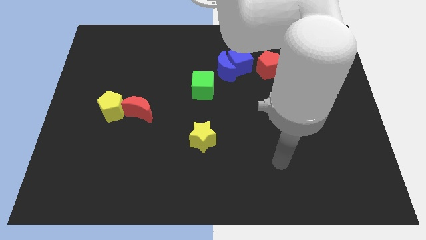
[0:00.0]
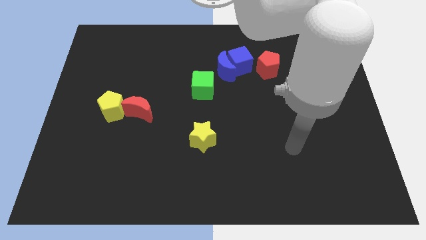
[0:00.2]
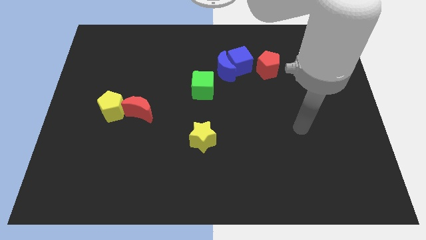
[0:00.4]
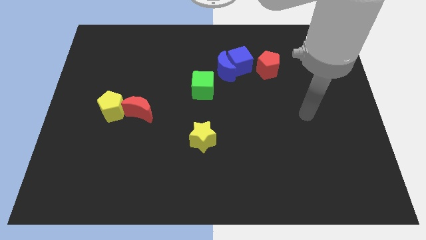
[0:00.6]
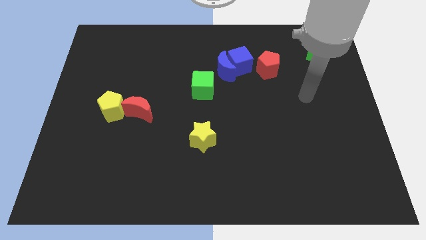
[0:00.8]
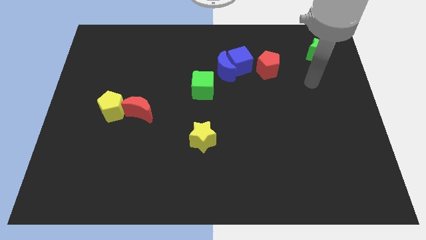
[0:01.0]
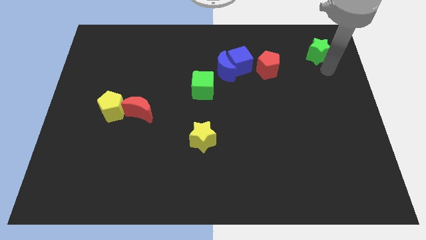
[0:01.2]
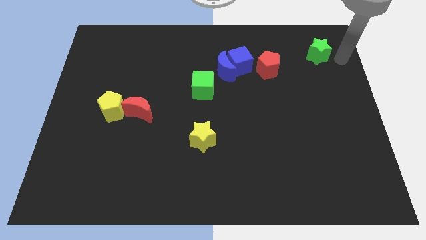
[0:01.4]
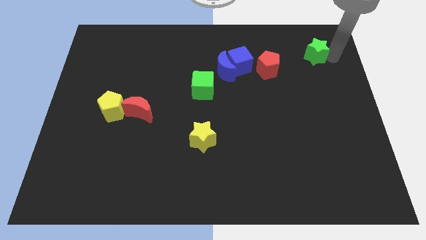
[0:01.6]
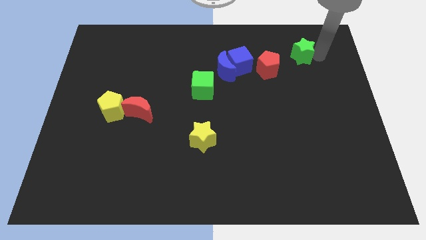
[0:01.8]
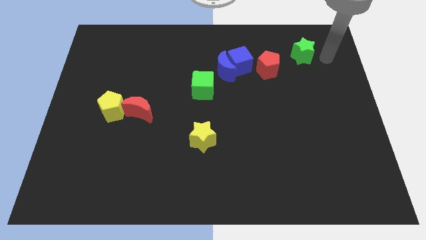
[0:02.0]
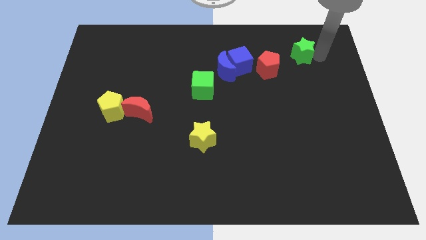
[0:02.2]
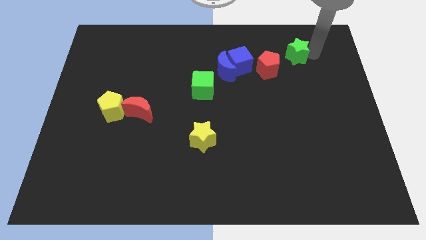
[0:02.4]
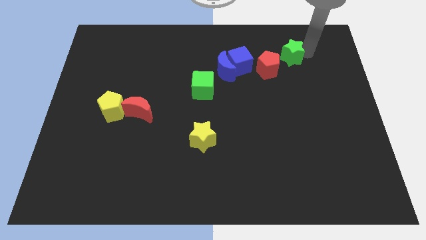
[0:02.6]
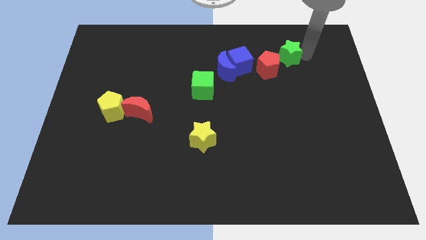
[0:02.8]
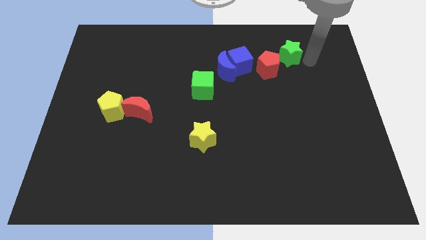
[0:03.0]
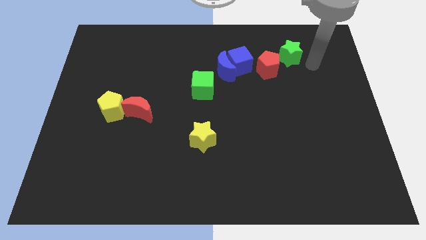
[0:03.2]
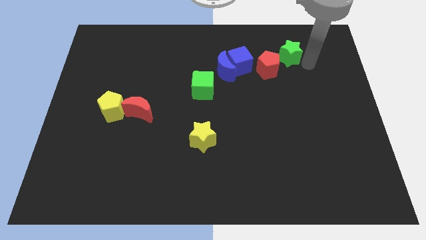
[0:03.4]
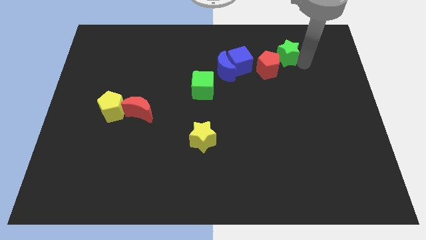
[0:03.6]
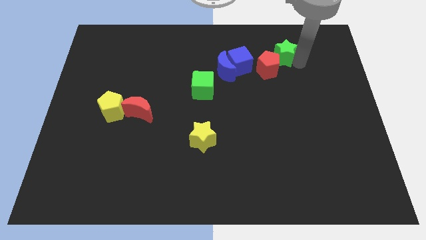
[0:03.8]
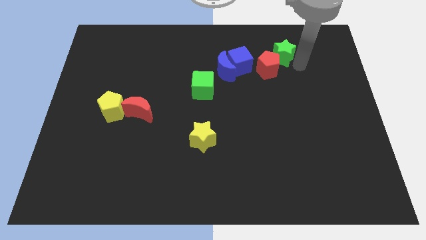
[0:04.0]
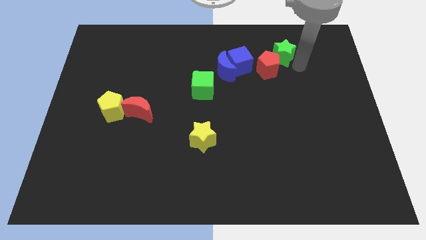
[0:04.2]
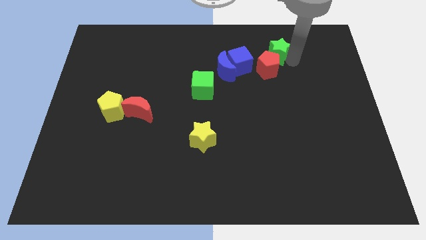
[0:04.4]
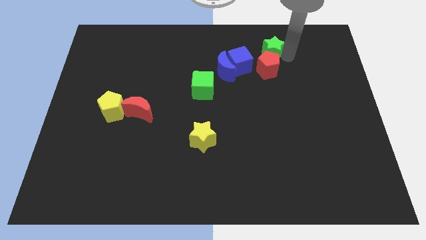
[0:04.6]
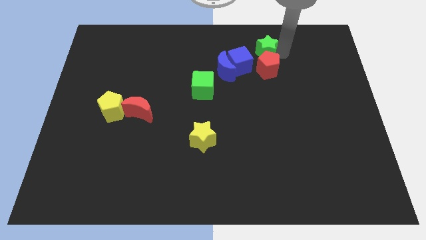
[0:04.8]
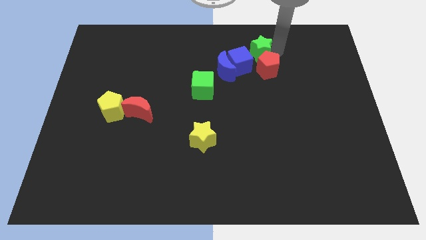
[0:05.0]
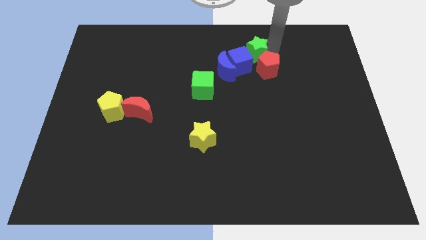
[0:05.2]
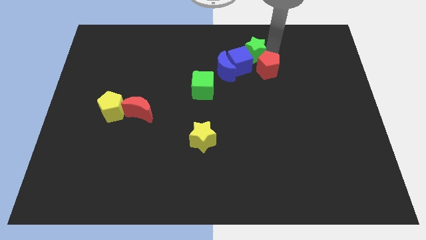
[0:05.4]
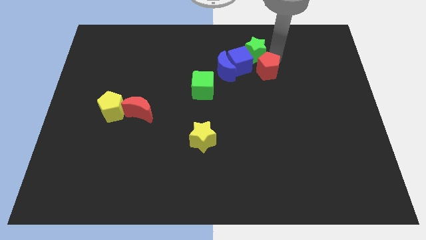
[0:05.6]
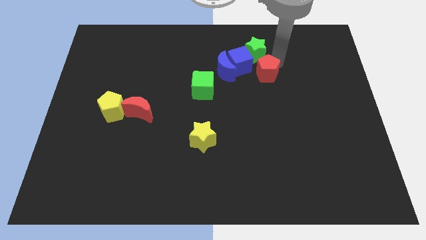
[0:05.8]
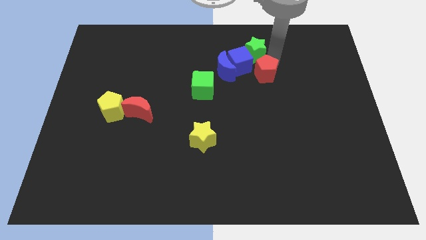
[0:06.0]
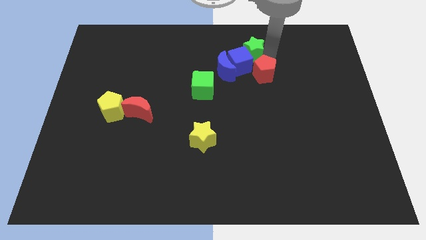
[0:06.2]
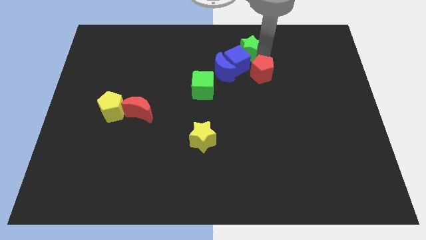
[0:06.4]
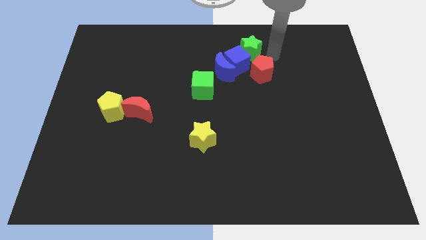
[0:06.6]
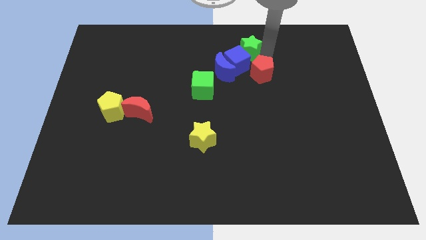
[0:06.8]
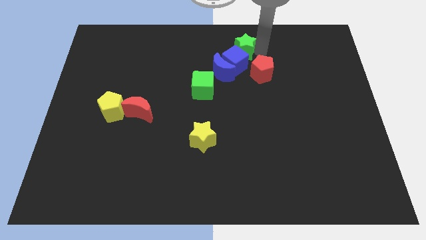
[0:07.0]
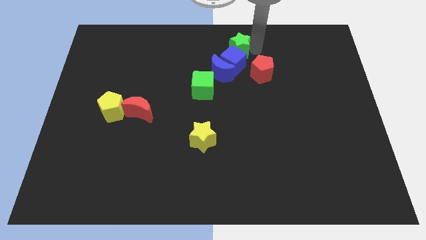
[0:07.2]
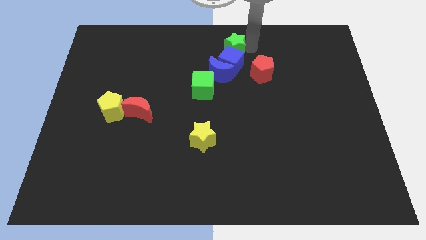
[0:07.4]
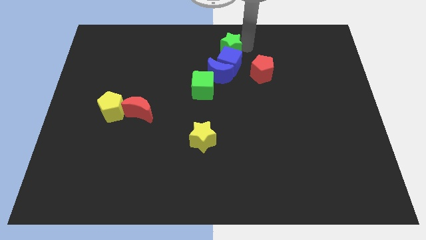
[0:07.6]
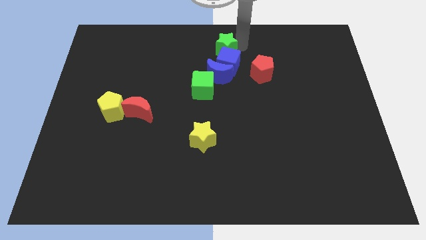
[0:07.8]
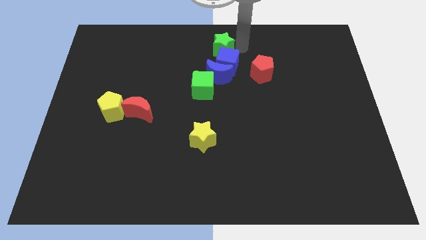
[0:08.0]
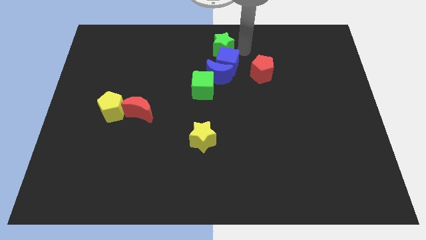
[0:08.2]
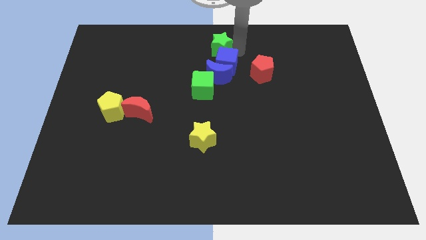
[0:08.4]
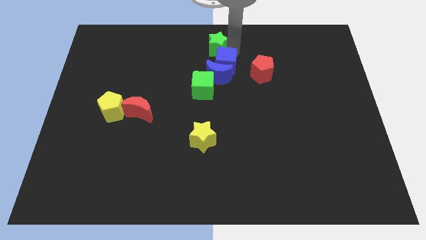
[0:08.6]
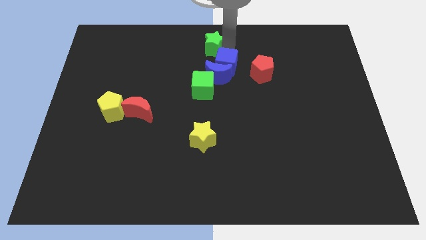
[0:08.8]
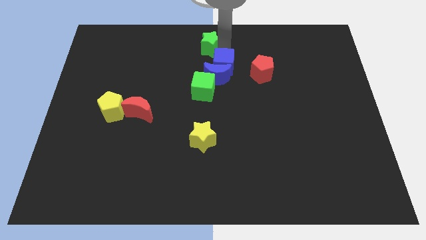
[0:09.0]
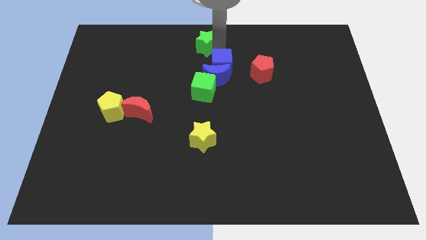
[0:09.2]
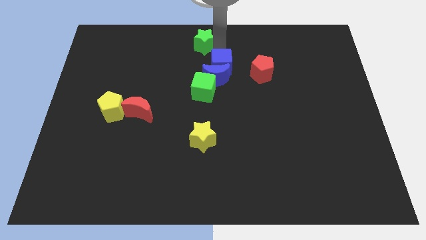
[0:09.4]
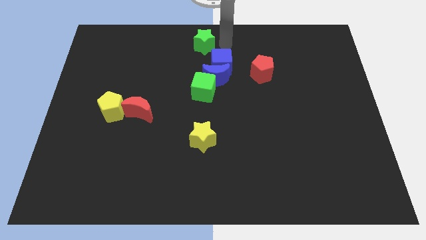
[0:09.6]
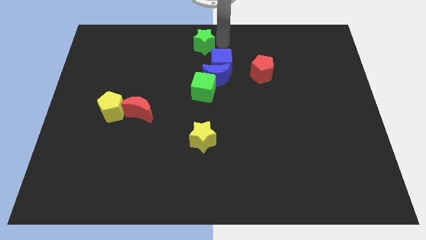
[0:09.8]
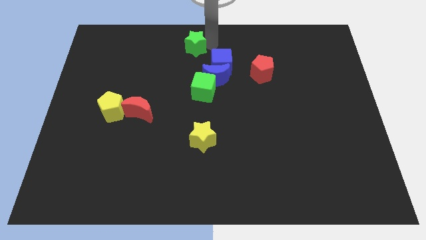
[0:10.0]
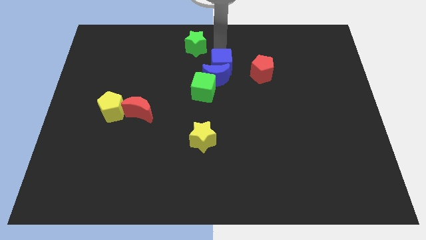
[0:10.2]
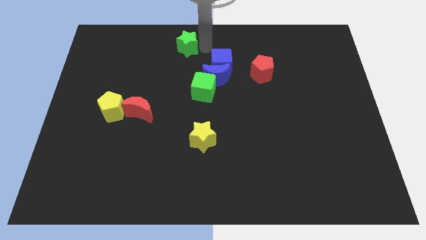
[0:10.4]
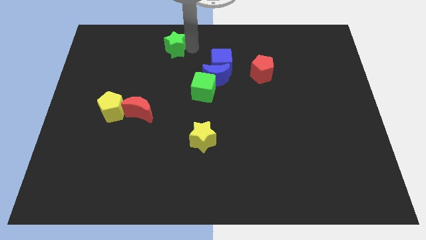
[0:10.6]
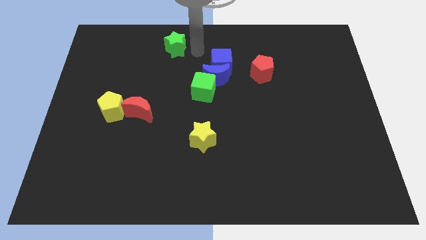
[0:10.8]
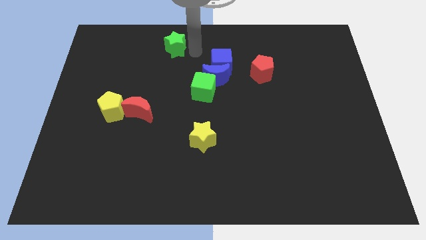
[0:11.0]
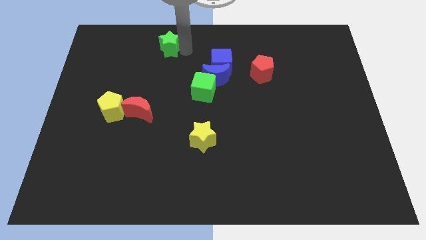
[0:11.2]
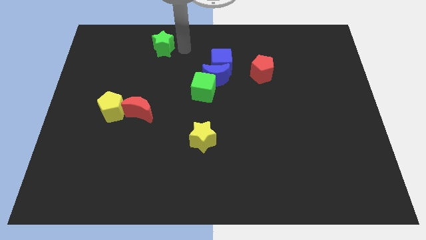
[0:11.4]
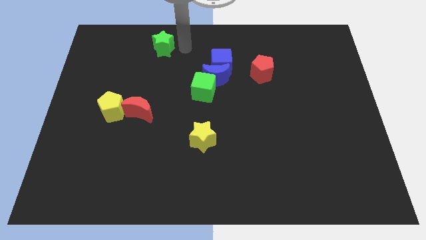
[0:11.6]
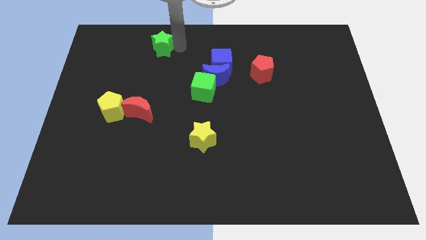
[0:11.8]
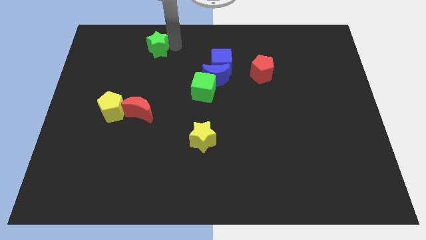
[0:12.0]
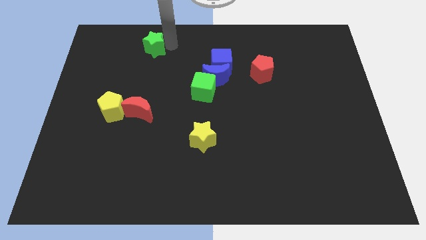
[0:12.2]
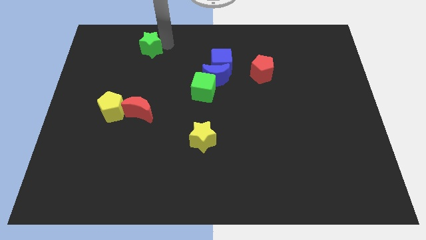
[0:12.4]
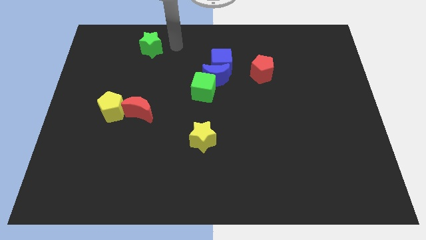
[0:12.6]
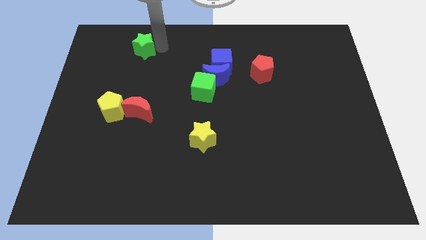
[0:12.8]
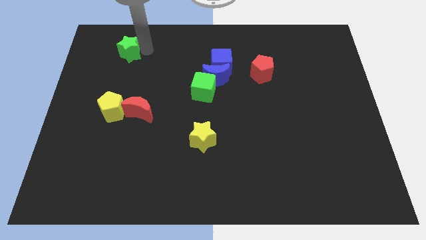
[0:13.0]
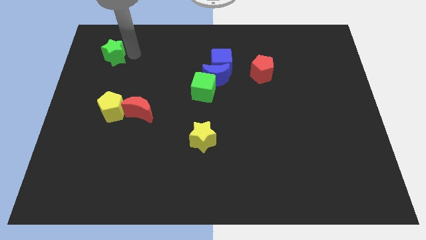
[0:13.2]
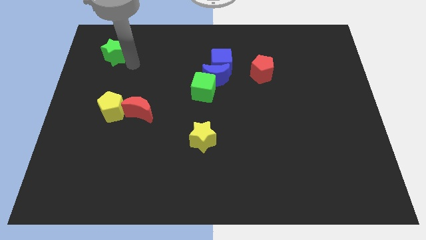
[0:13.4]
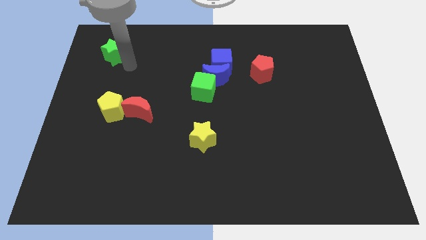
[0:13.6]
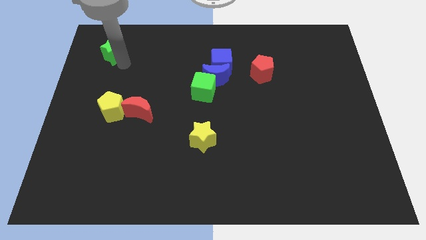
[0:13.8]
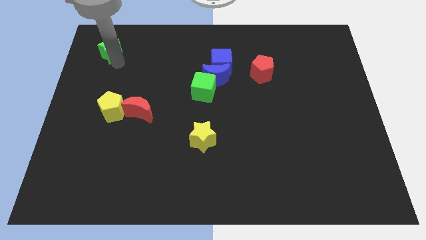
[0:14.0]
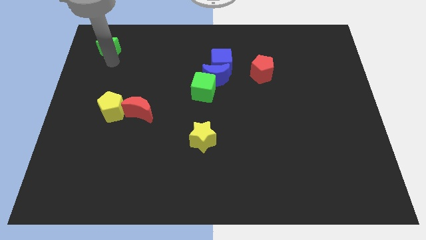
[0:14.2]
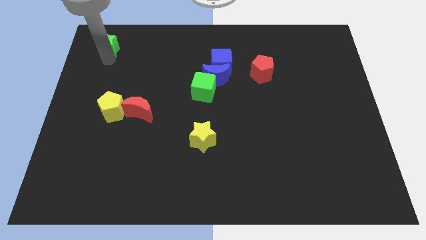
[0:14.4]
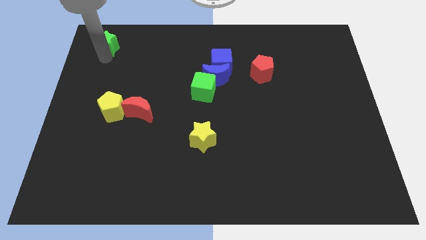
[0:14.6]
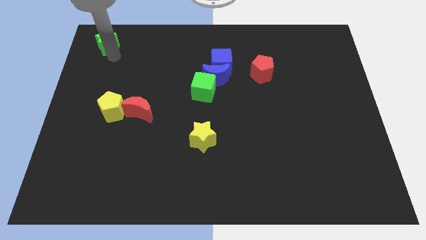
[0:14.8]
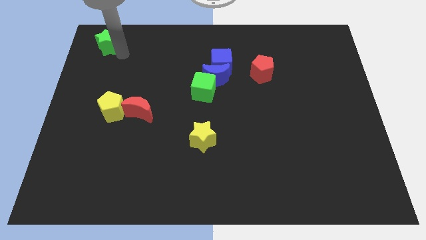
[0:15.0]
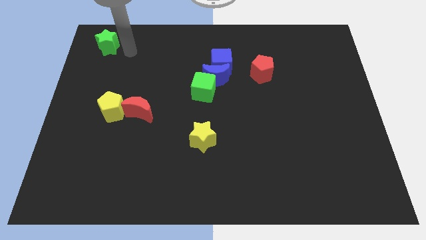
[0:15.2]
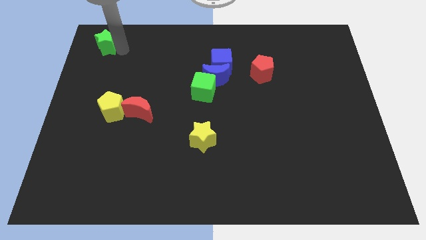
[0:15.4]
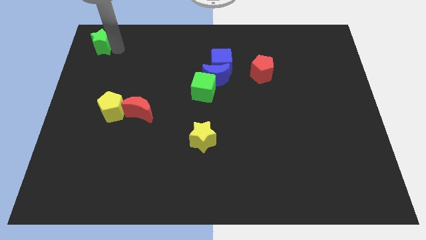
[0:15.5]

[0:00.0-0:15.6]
move the green star to the top left
